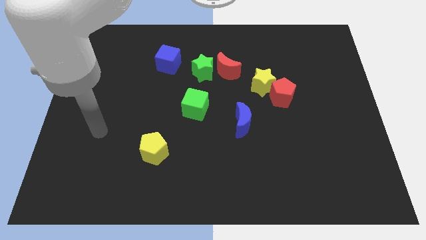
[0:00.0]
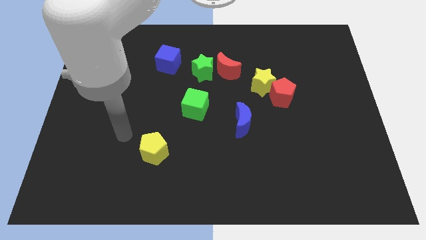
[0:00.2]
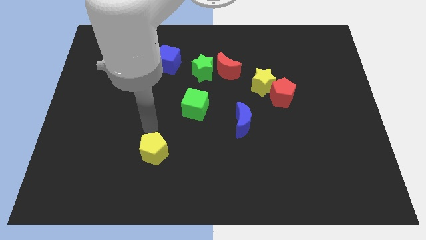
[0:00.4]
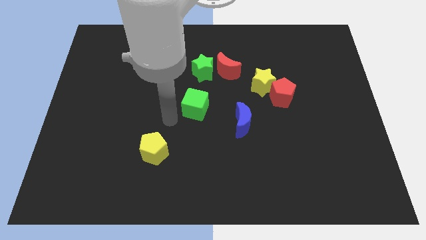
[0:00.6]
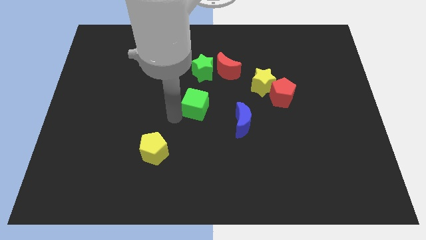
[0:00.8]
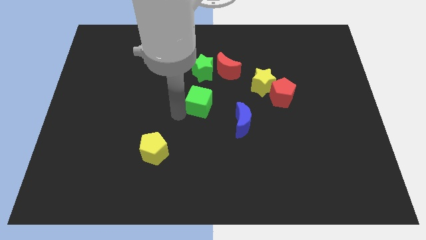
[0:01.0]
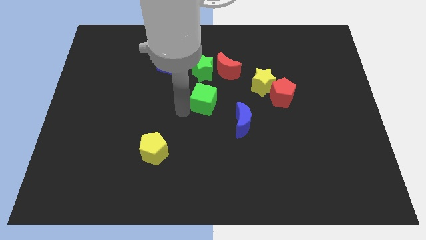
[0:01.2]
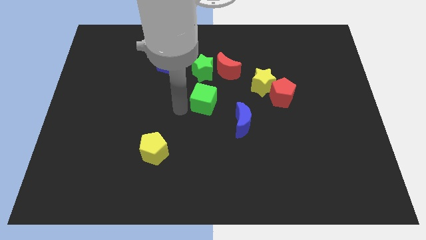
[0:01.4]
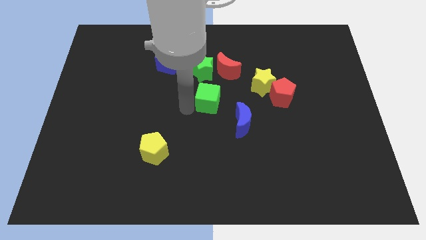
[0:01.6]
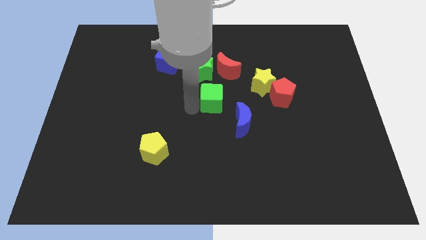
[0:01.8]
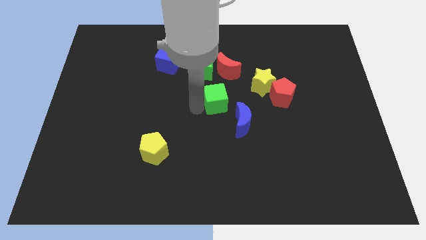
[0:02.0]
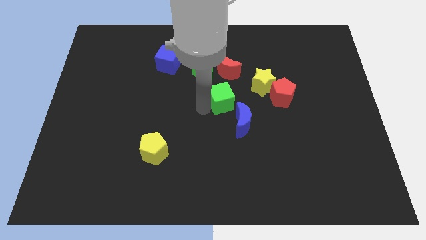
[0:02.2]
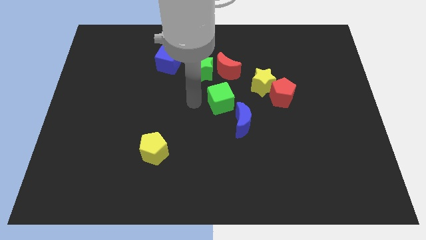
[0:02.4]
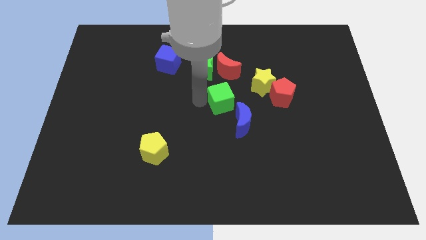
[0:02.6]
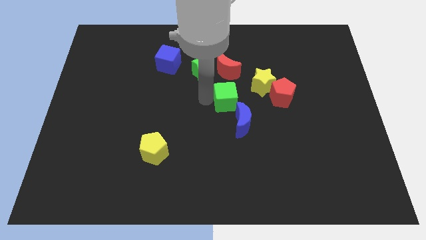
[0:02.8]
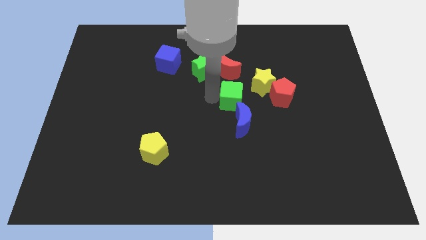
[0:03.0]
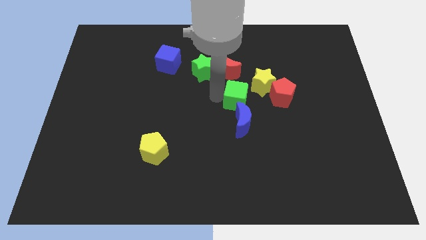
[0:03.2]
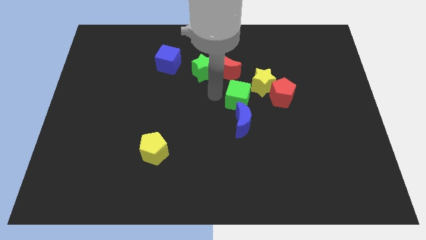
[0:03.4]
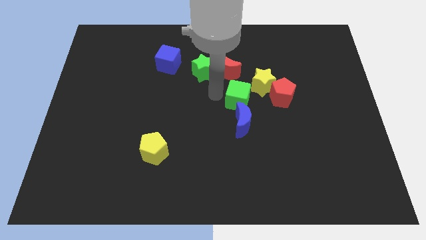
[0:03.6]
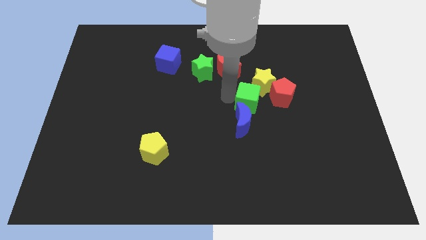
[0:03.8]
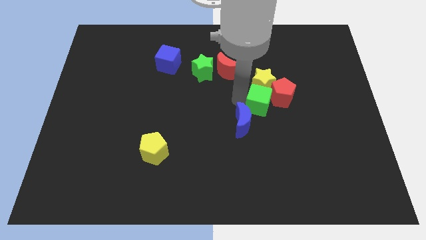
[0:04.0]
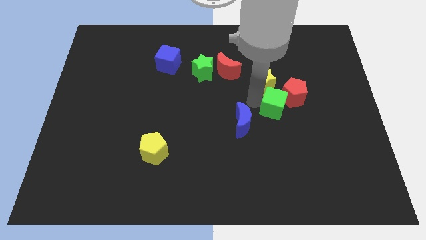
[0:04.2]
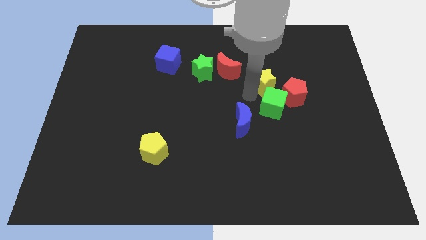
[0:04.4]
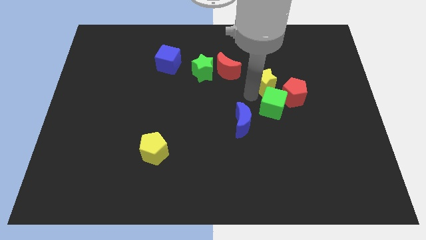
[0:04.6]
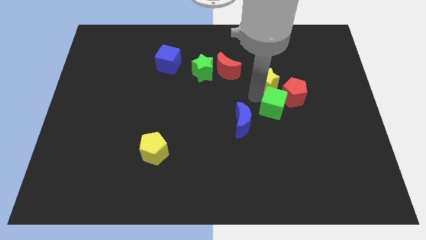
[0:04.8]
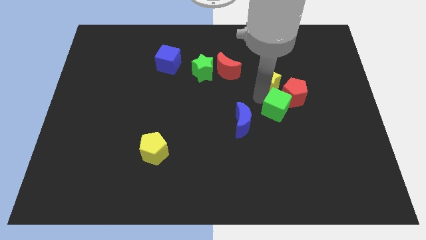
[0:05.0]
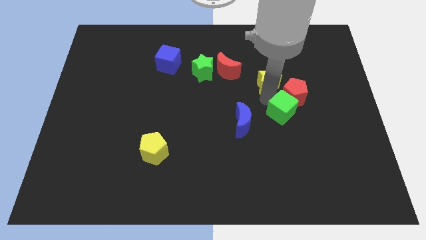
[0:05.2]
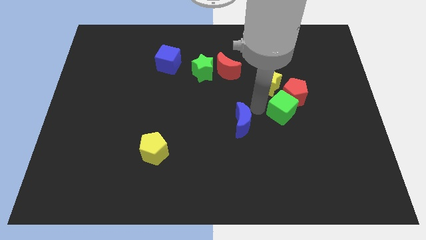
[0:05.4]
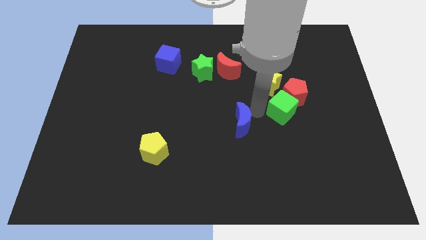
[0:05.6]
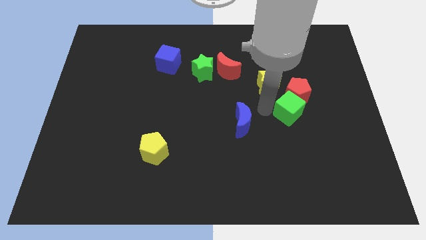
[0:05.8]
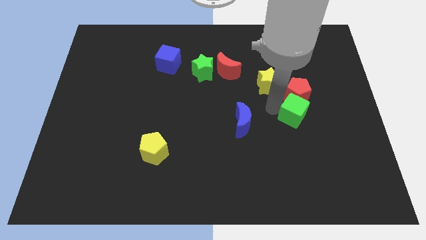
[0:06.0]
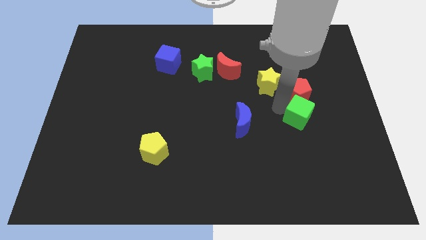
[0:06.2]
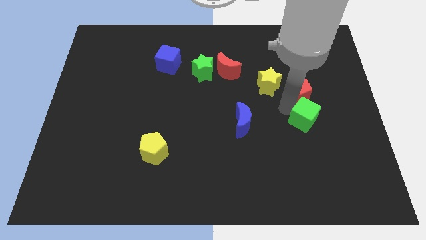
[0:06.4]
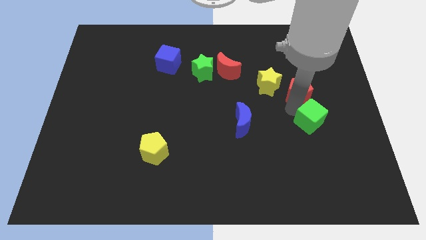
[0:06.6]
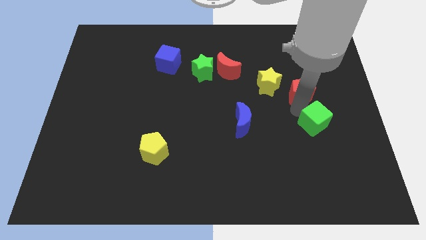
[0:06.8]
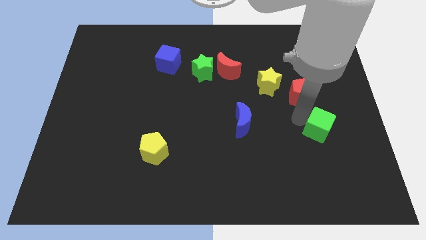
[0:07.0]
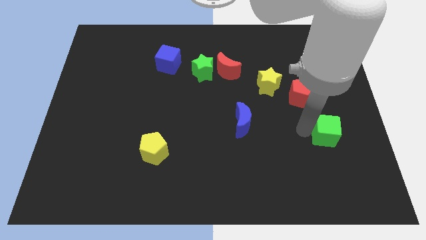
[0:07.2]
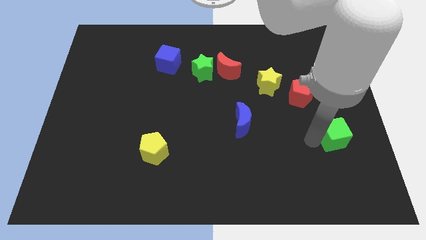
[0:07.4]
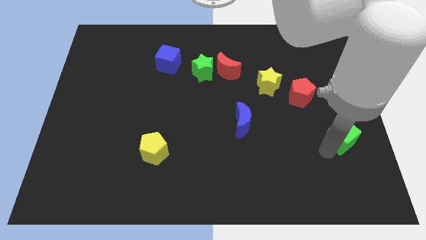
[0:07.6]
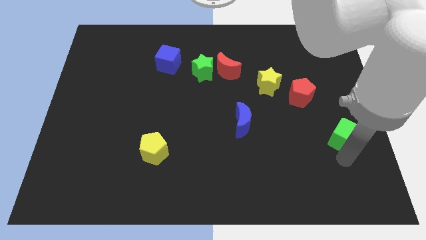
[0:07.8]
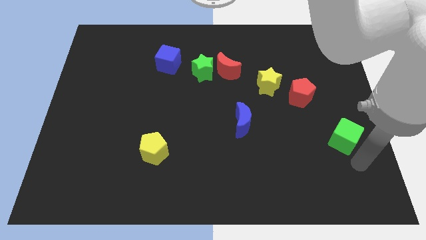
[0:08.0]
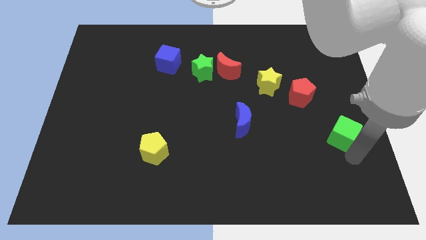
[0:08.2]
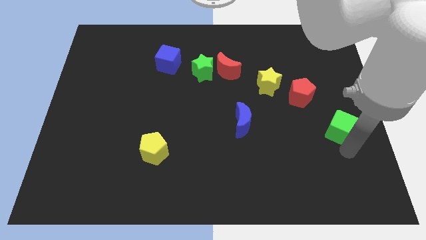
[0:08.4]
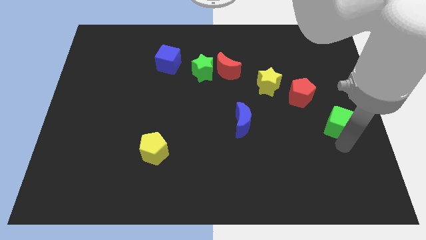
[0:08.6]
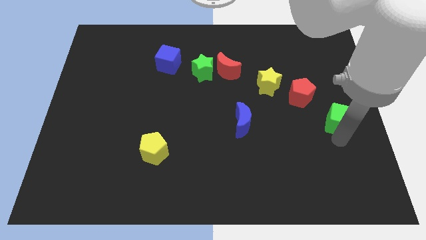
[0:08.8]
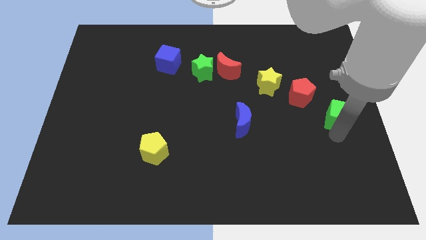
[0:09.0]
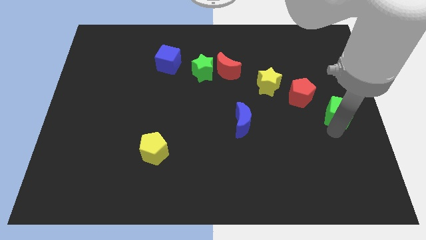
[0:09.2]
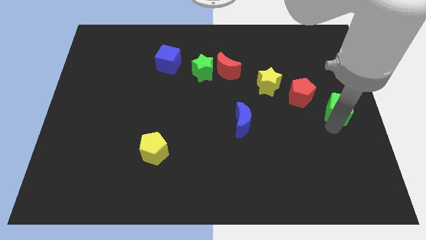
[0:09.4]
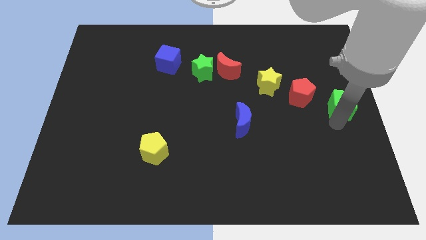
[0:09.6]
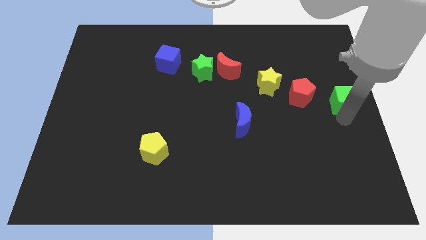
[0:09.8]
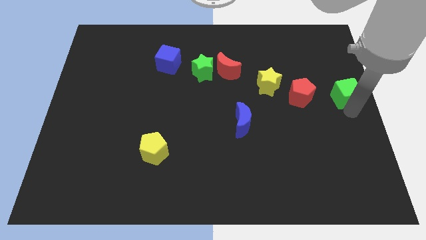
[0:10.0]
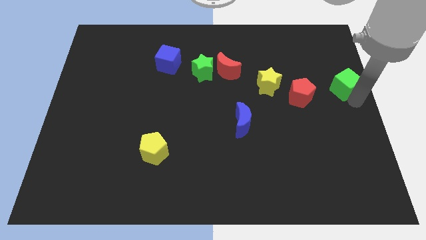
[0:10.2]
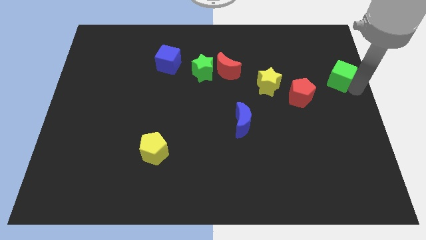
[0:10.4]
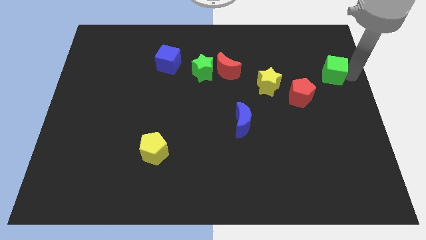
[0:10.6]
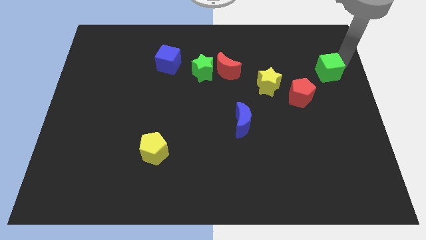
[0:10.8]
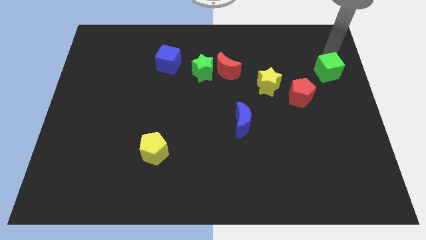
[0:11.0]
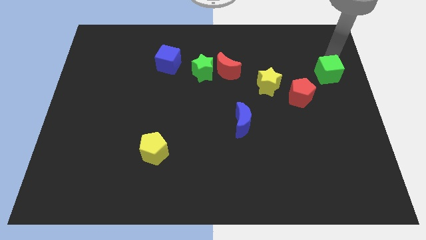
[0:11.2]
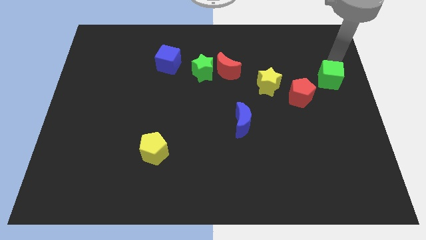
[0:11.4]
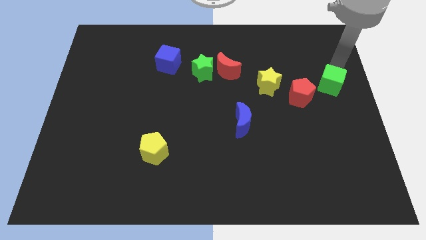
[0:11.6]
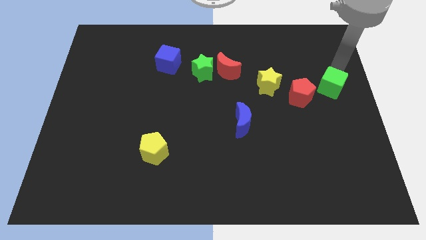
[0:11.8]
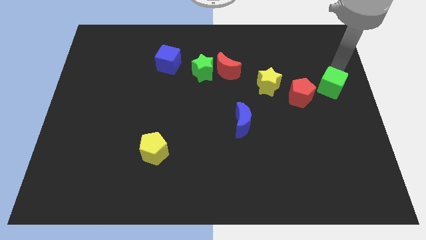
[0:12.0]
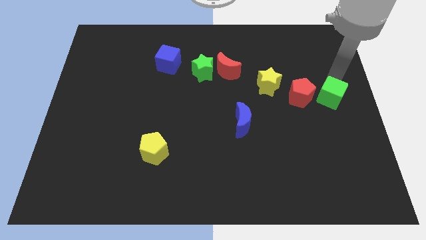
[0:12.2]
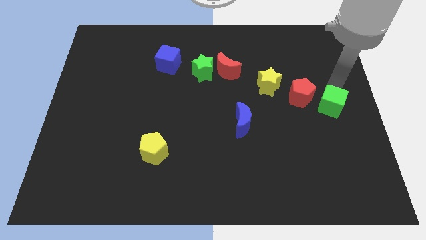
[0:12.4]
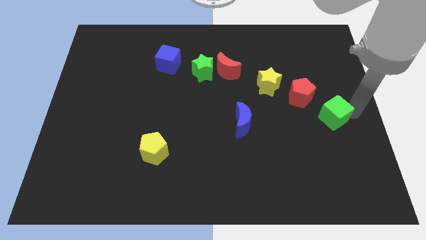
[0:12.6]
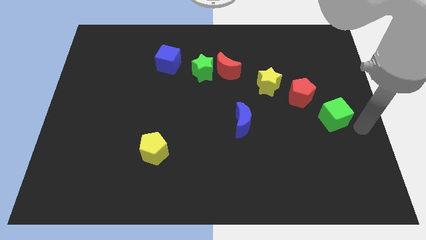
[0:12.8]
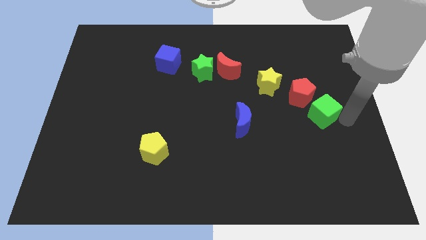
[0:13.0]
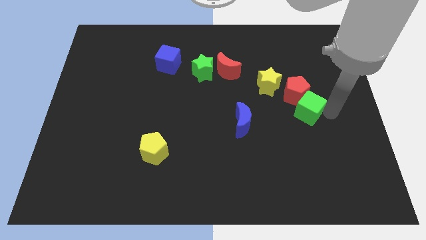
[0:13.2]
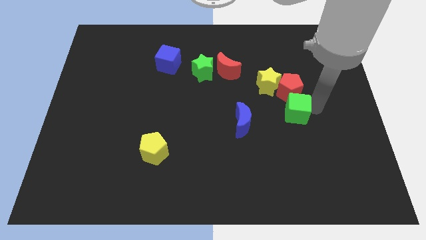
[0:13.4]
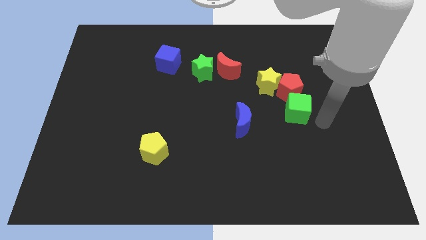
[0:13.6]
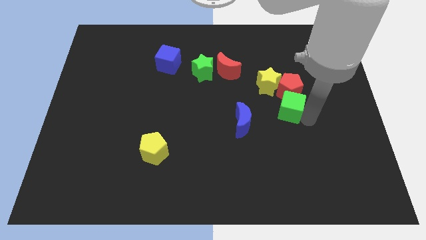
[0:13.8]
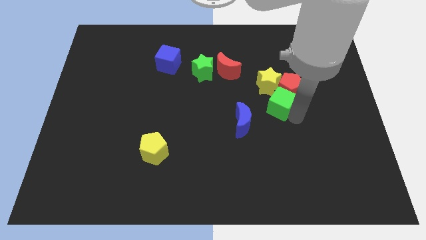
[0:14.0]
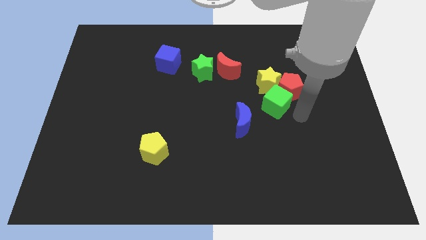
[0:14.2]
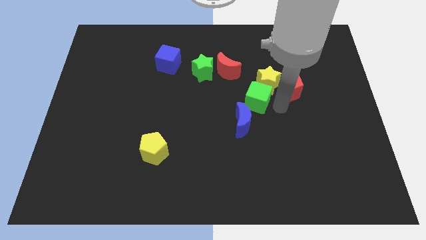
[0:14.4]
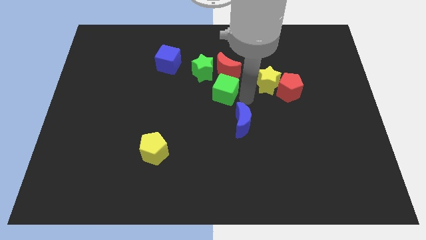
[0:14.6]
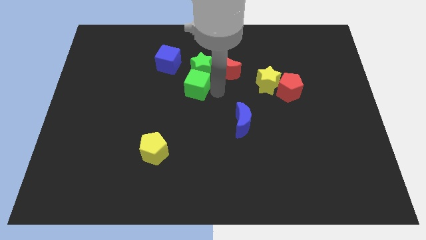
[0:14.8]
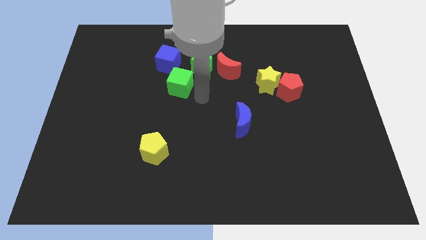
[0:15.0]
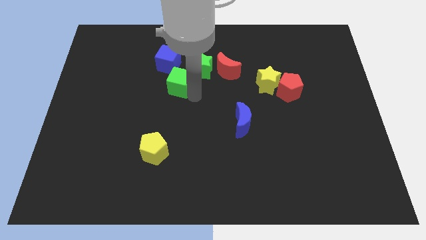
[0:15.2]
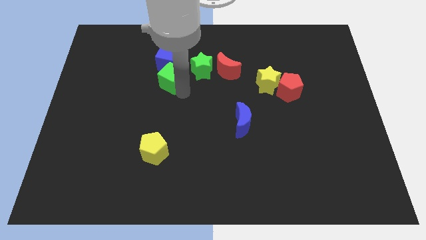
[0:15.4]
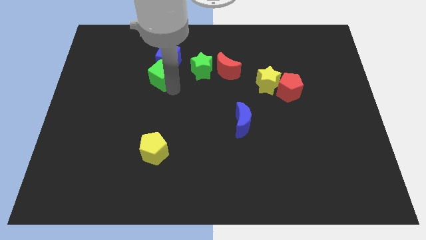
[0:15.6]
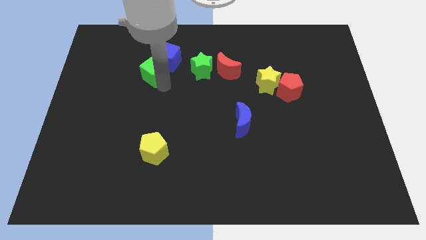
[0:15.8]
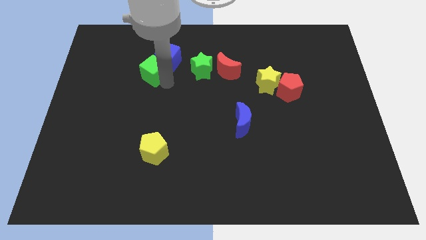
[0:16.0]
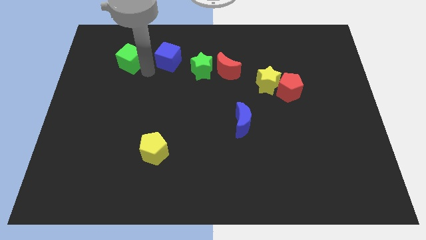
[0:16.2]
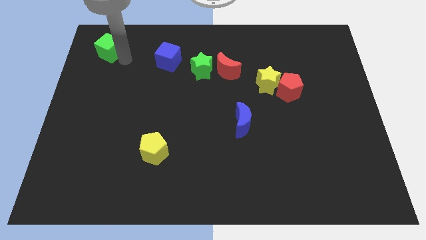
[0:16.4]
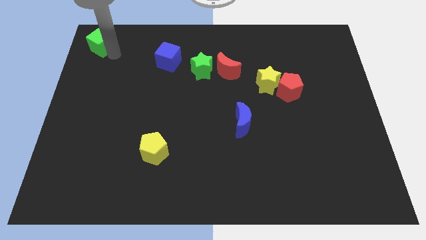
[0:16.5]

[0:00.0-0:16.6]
push the green cube to the top left
